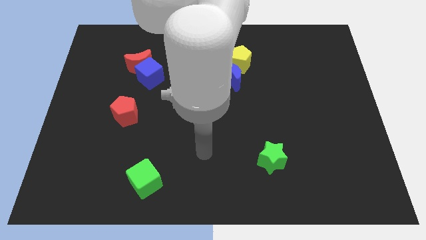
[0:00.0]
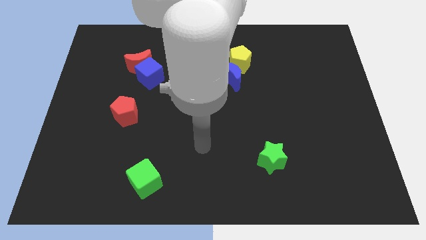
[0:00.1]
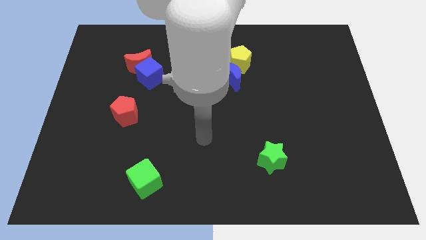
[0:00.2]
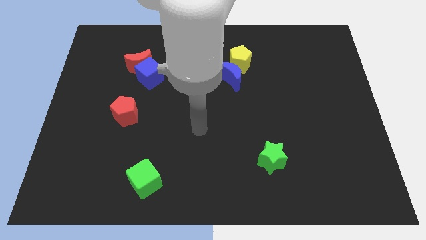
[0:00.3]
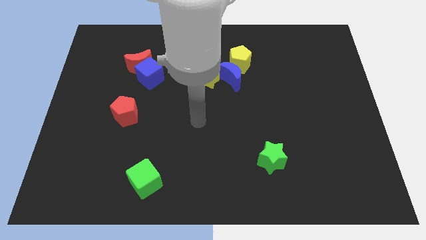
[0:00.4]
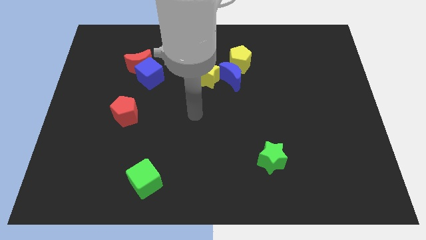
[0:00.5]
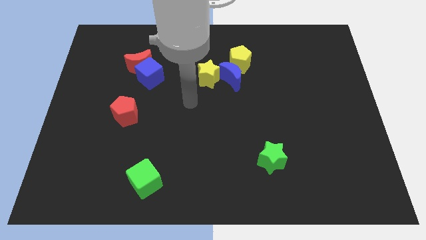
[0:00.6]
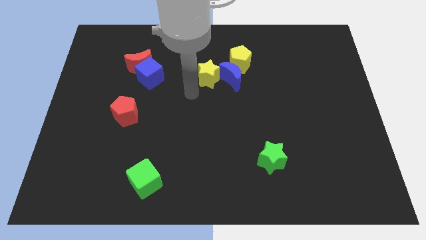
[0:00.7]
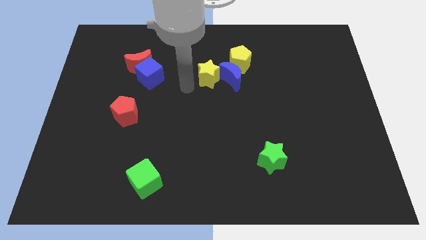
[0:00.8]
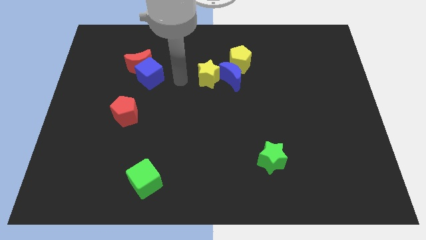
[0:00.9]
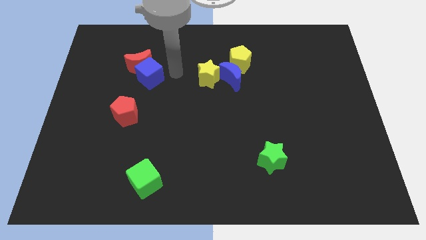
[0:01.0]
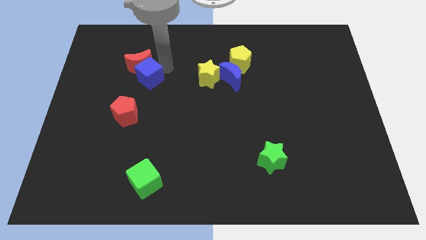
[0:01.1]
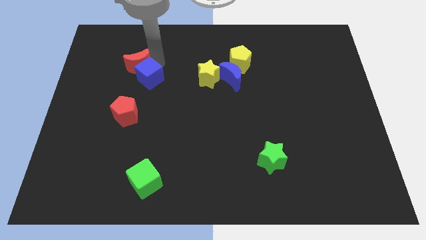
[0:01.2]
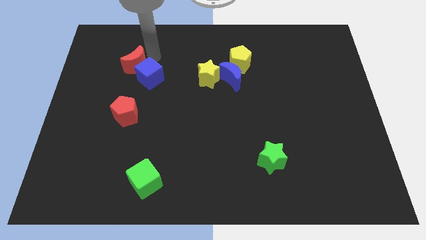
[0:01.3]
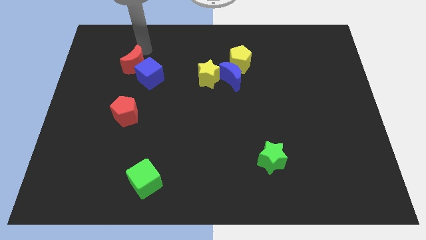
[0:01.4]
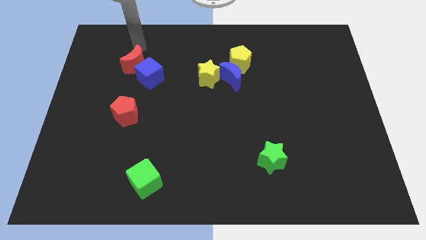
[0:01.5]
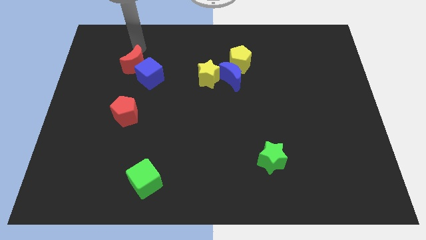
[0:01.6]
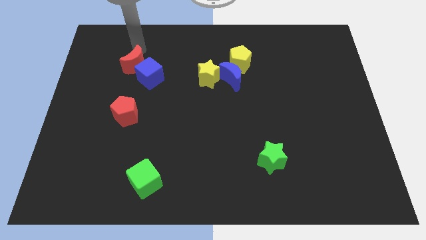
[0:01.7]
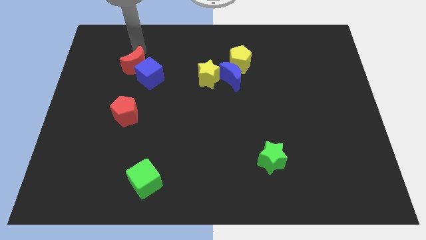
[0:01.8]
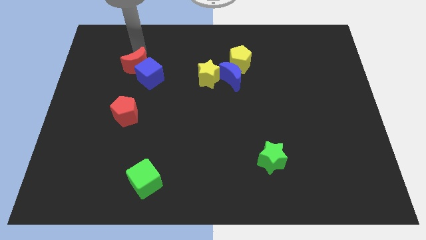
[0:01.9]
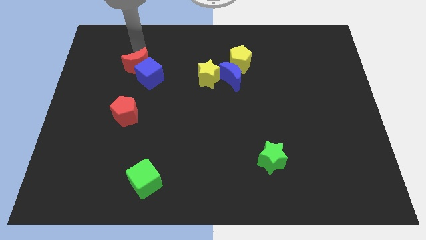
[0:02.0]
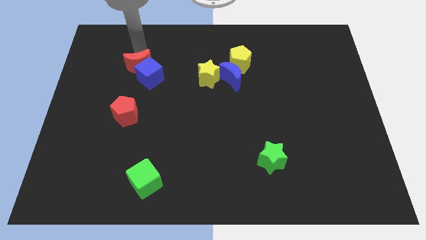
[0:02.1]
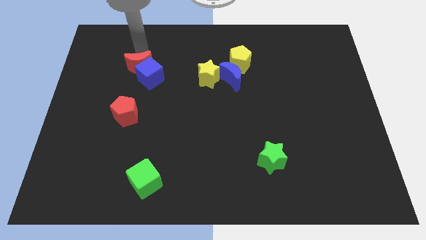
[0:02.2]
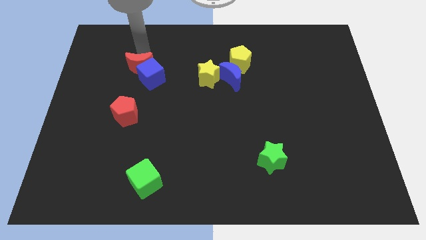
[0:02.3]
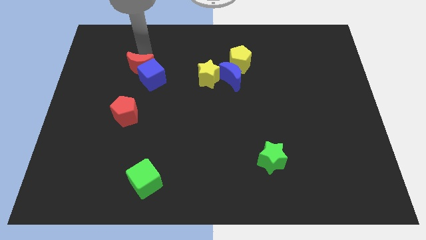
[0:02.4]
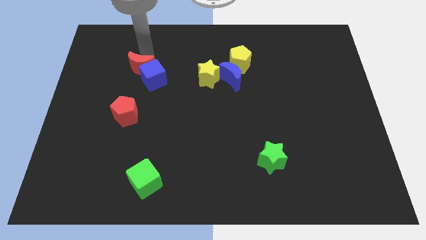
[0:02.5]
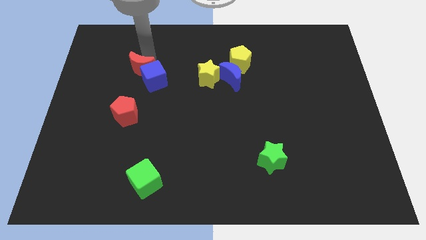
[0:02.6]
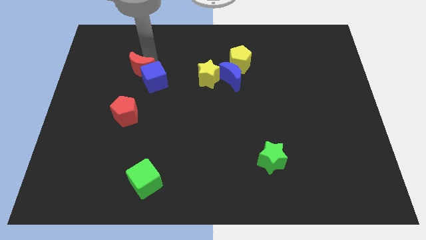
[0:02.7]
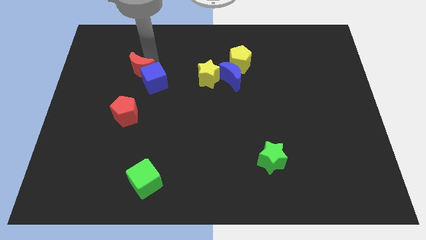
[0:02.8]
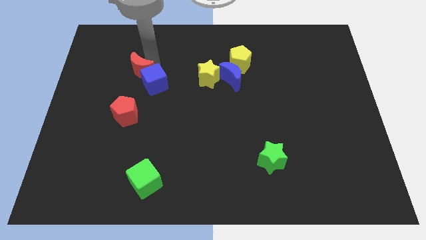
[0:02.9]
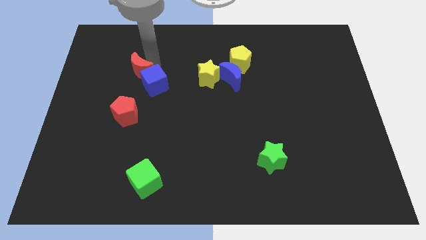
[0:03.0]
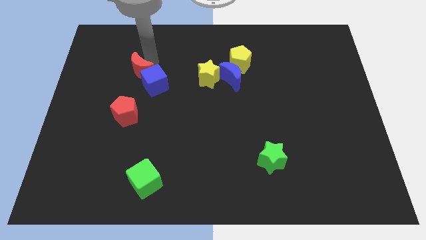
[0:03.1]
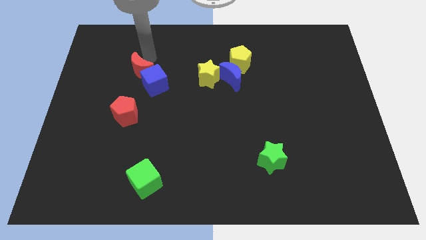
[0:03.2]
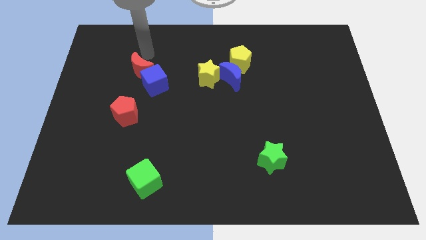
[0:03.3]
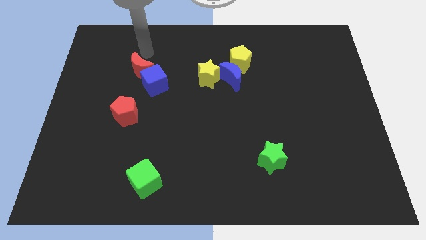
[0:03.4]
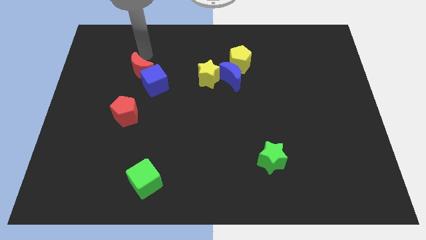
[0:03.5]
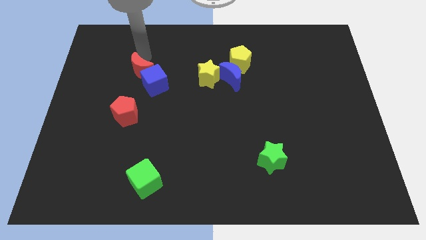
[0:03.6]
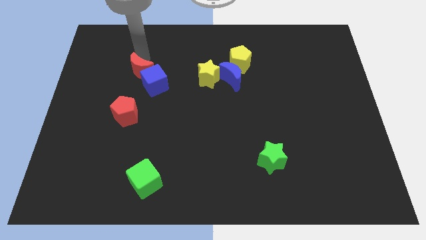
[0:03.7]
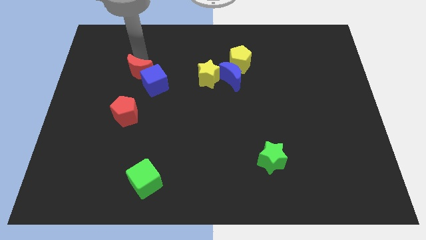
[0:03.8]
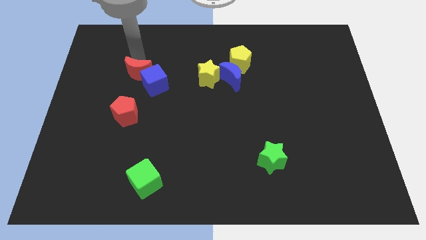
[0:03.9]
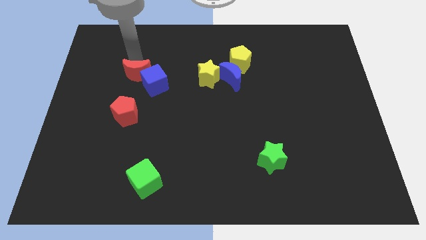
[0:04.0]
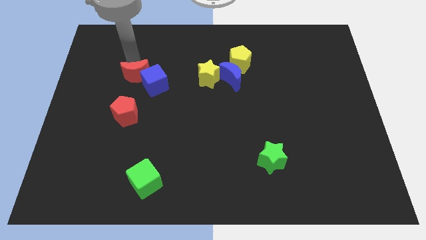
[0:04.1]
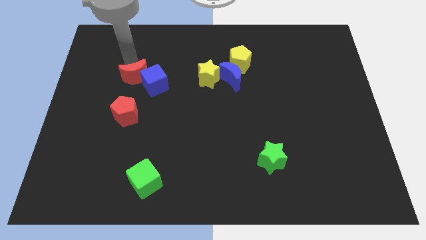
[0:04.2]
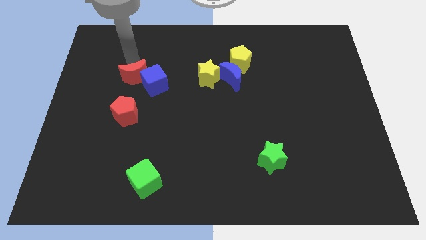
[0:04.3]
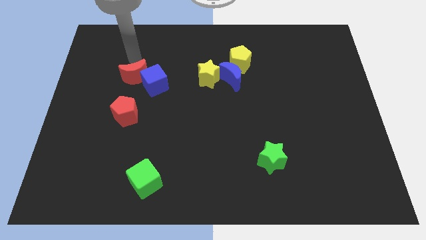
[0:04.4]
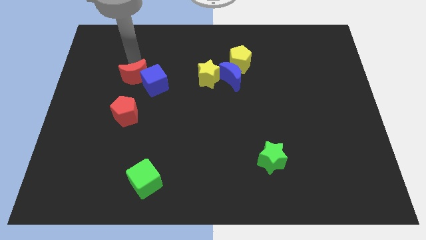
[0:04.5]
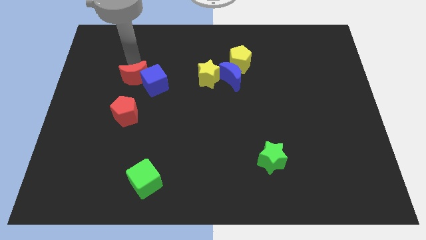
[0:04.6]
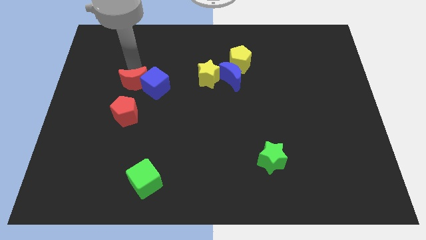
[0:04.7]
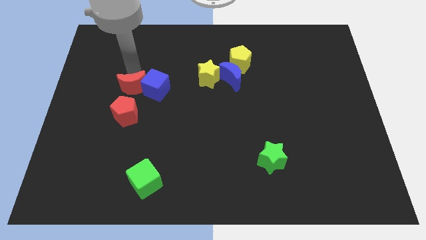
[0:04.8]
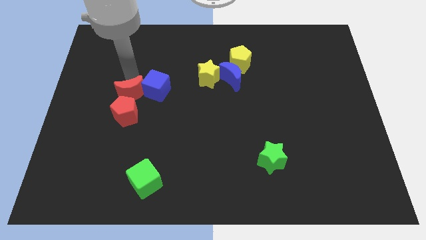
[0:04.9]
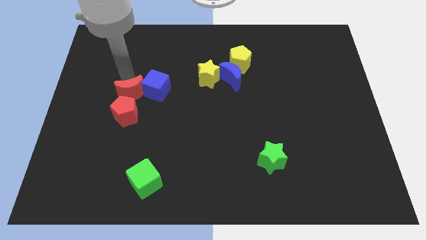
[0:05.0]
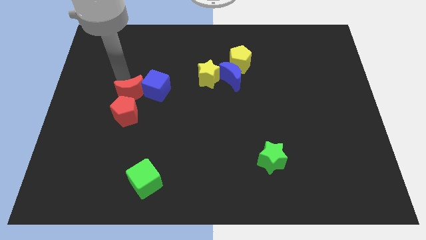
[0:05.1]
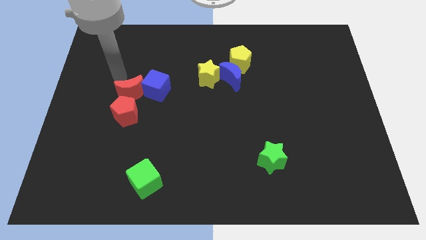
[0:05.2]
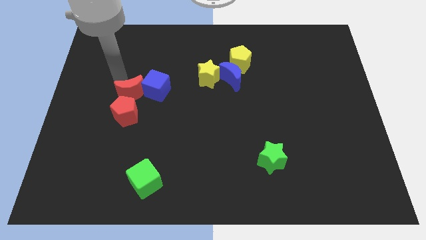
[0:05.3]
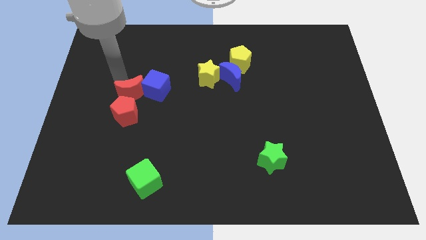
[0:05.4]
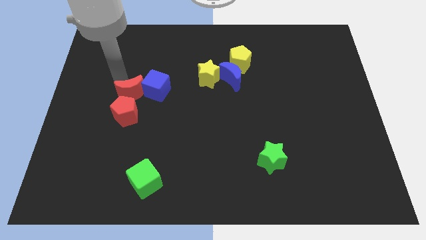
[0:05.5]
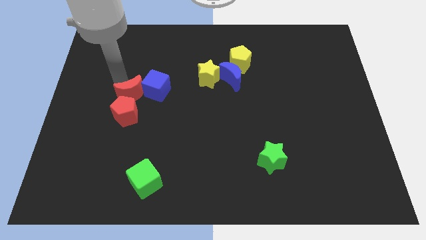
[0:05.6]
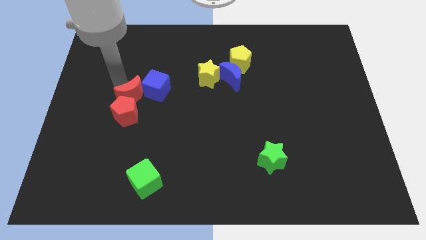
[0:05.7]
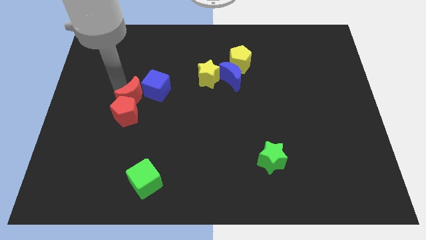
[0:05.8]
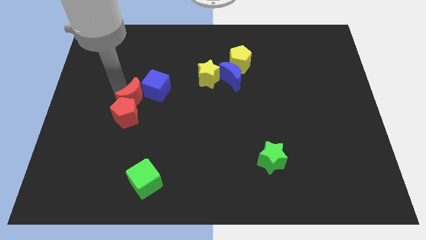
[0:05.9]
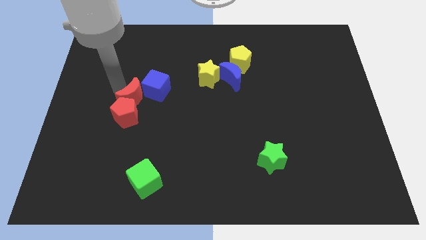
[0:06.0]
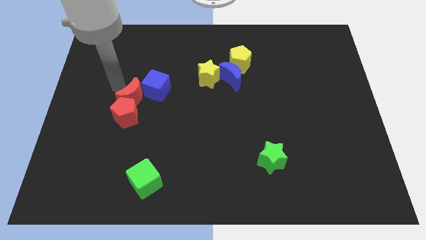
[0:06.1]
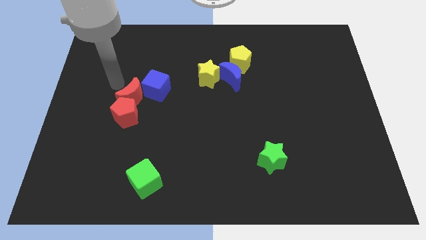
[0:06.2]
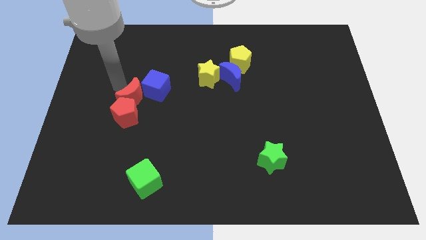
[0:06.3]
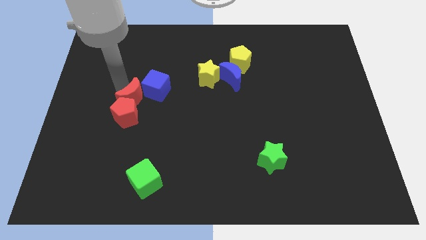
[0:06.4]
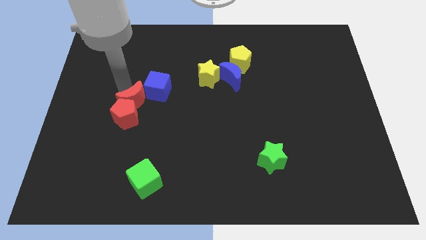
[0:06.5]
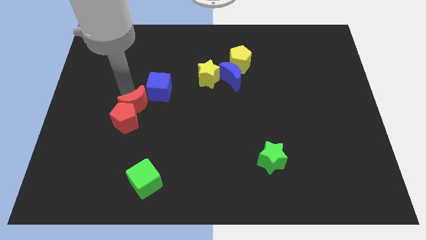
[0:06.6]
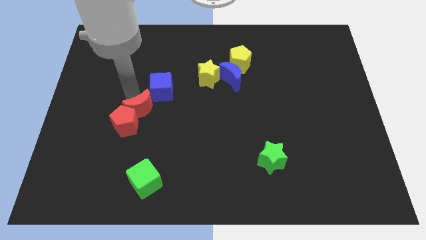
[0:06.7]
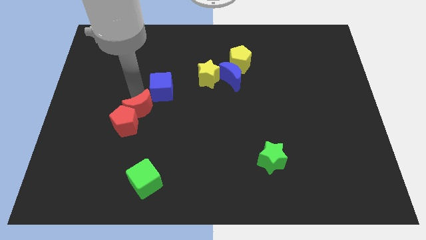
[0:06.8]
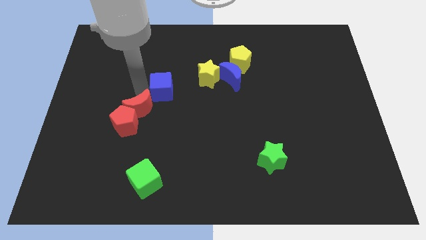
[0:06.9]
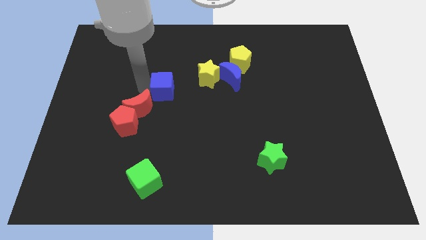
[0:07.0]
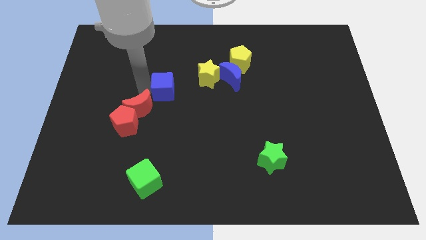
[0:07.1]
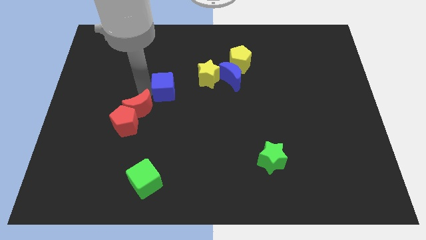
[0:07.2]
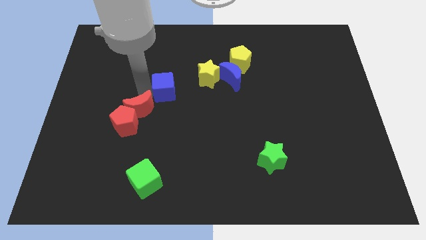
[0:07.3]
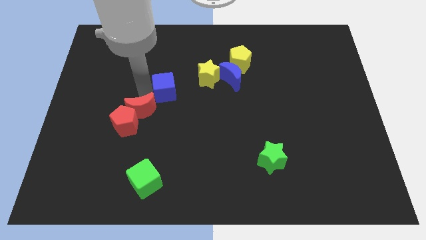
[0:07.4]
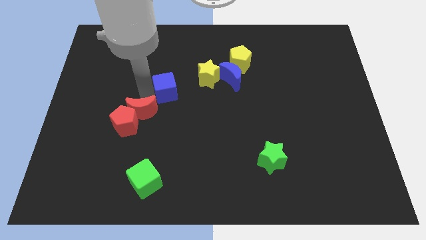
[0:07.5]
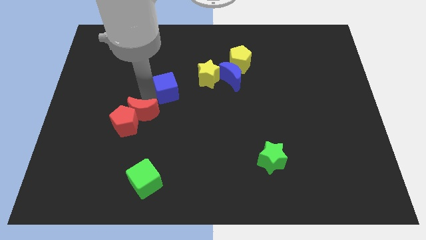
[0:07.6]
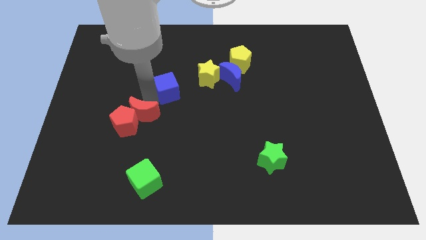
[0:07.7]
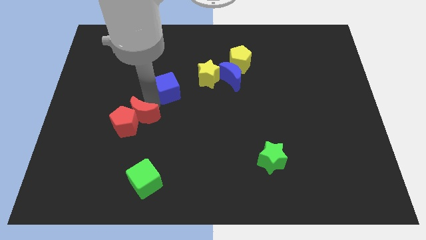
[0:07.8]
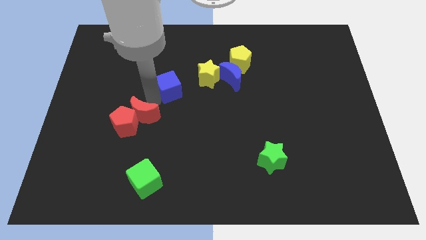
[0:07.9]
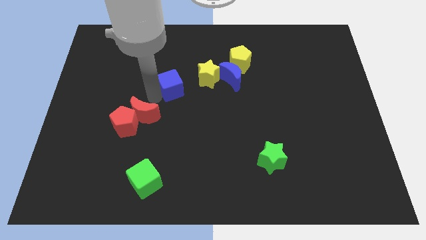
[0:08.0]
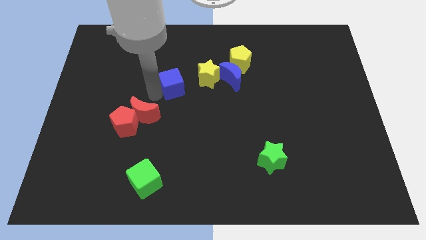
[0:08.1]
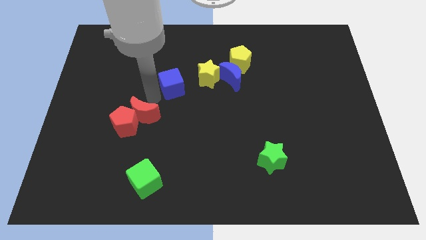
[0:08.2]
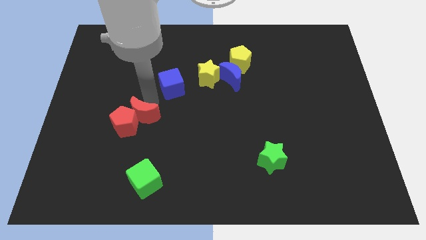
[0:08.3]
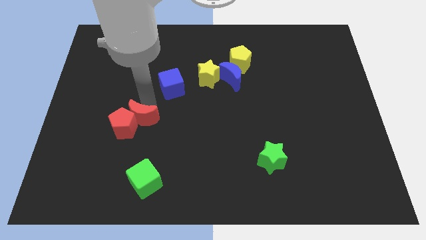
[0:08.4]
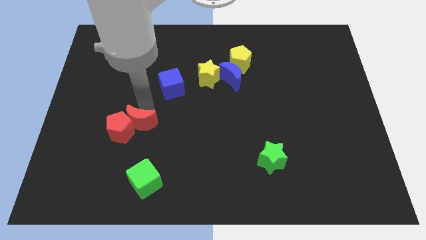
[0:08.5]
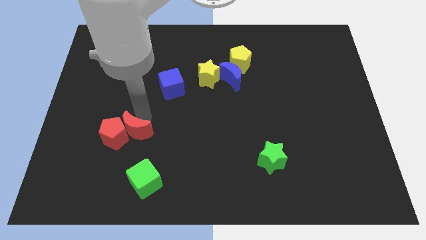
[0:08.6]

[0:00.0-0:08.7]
slide the red moon down
